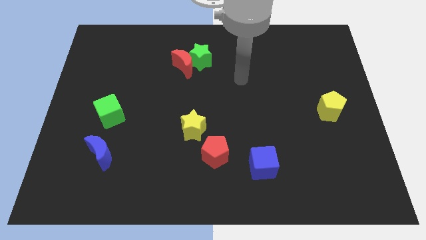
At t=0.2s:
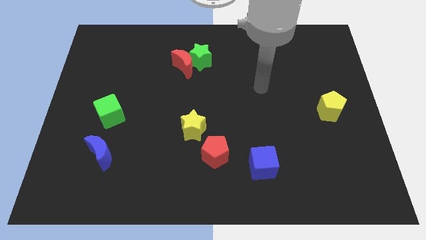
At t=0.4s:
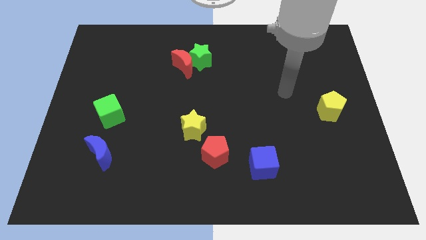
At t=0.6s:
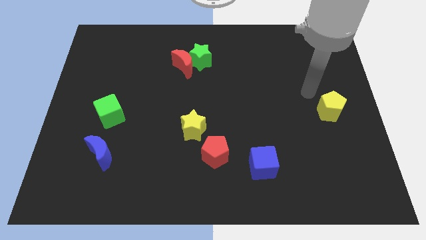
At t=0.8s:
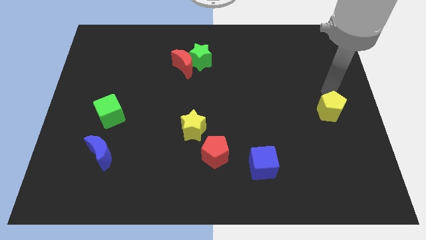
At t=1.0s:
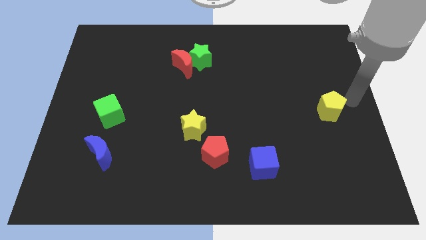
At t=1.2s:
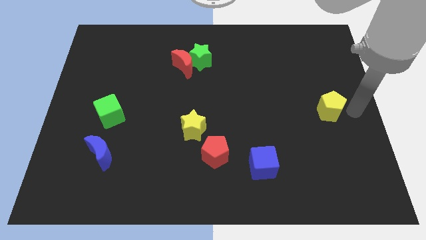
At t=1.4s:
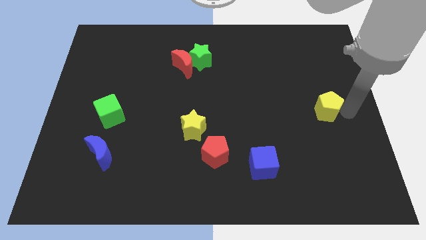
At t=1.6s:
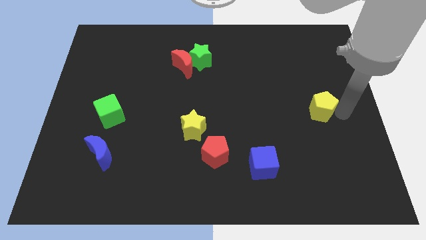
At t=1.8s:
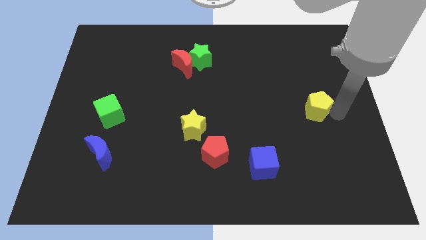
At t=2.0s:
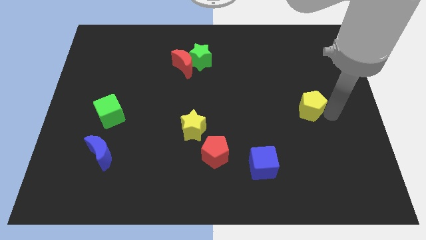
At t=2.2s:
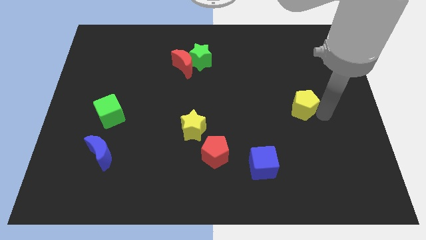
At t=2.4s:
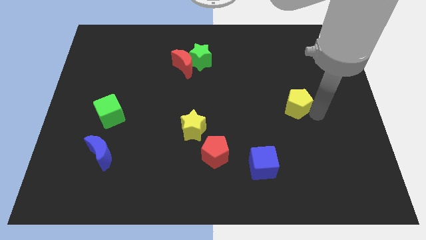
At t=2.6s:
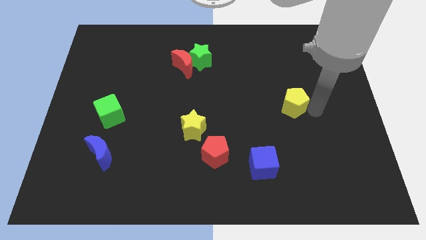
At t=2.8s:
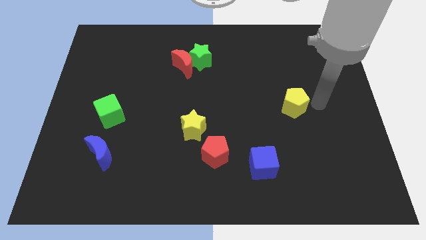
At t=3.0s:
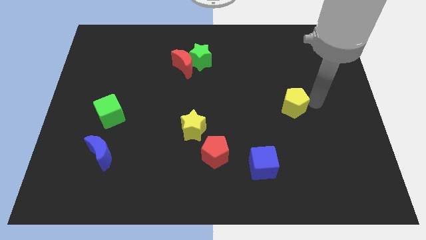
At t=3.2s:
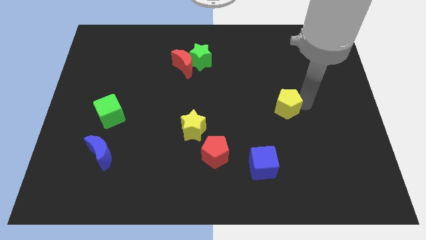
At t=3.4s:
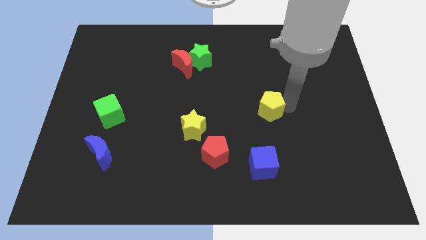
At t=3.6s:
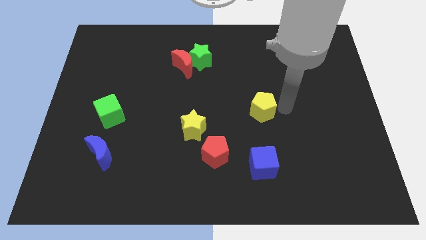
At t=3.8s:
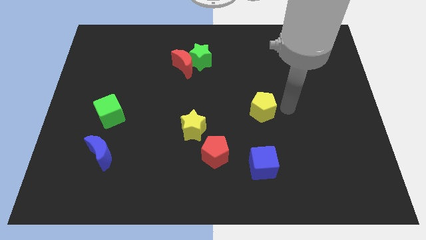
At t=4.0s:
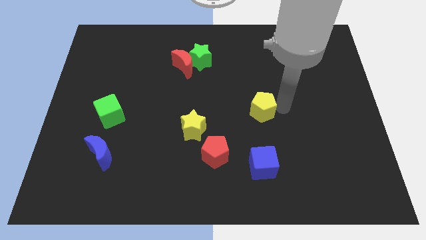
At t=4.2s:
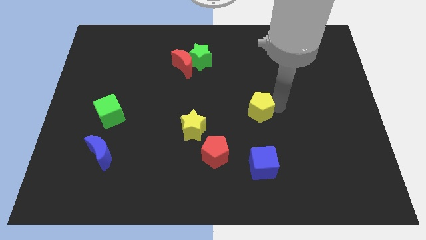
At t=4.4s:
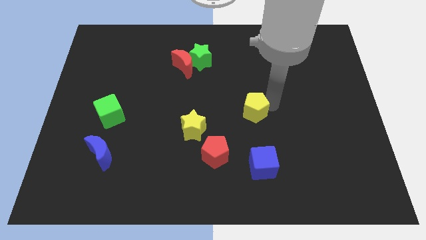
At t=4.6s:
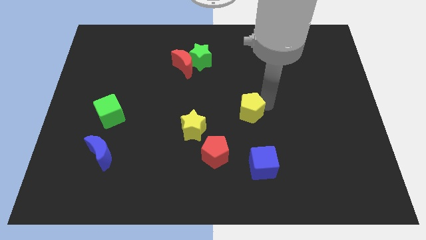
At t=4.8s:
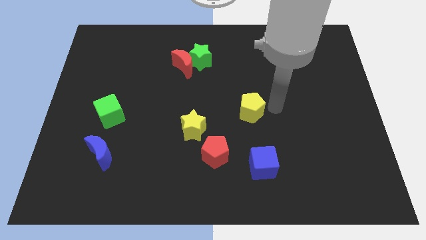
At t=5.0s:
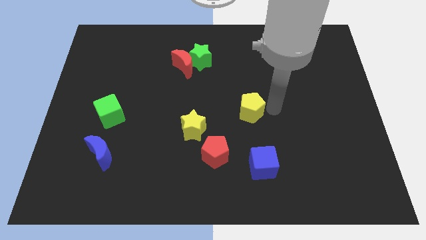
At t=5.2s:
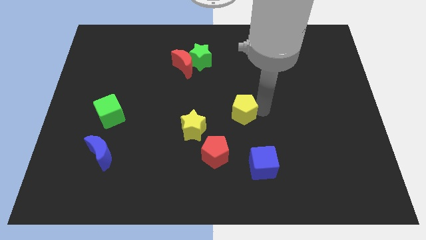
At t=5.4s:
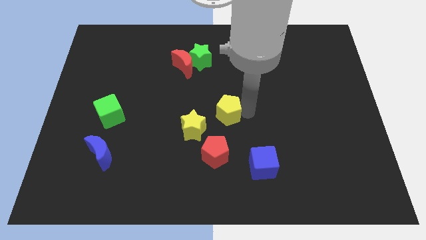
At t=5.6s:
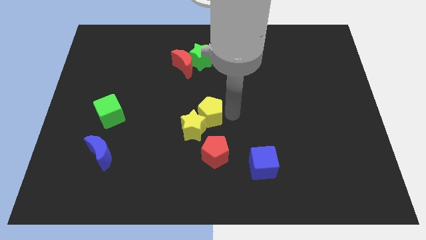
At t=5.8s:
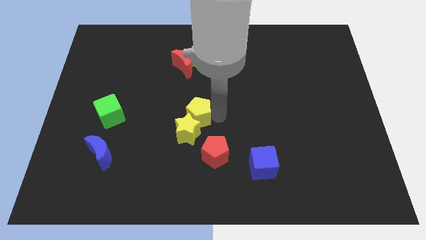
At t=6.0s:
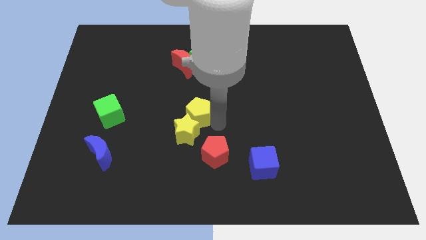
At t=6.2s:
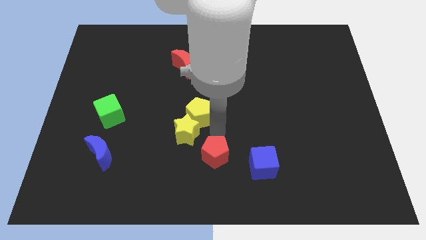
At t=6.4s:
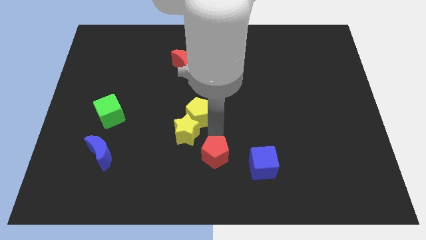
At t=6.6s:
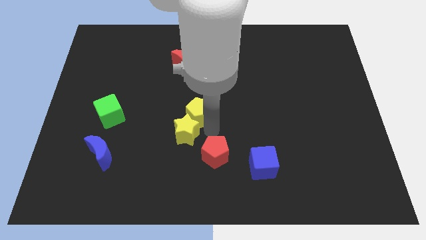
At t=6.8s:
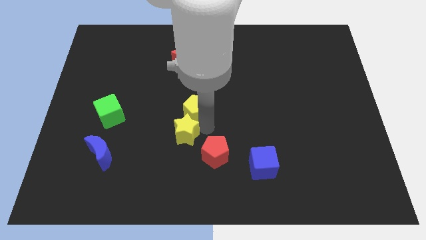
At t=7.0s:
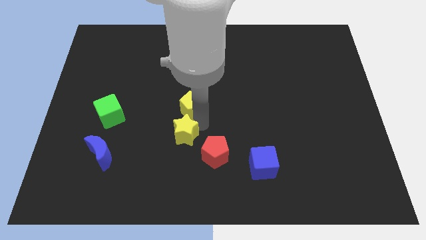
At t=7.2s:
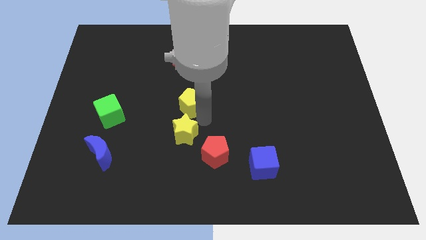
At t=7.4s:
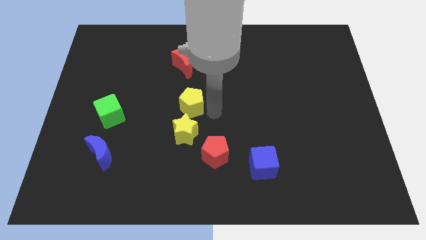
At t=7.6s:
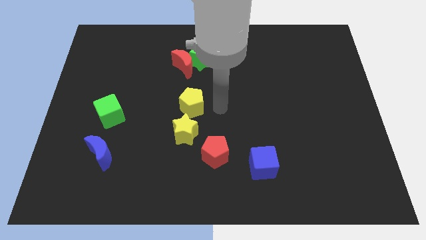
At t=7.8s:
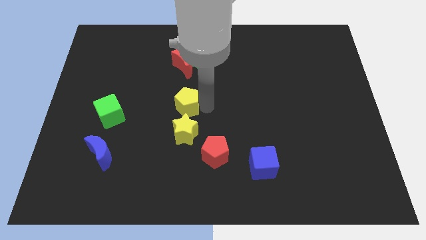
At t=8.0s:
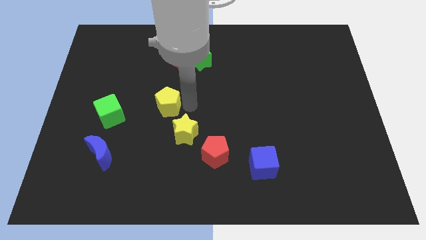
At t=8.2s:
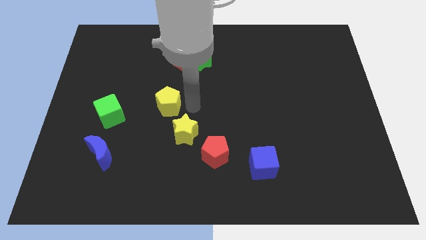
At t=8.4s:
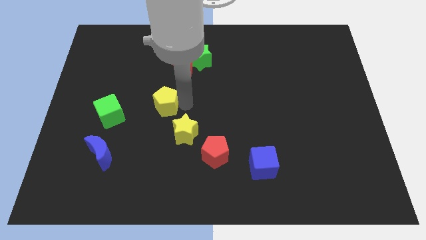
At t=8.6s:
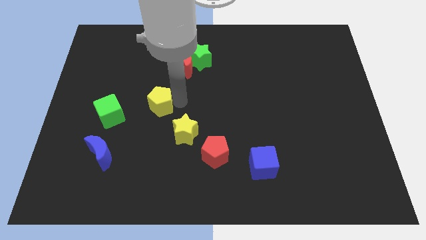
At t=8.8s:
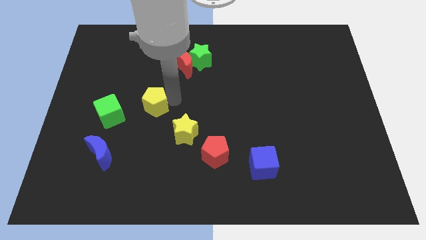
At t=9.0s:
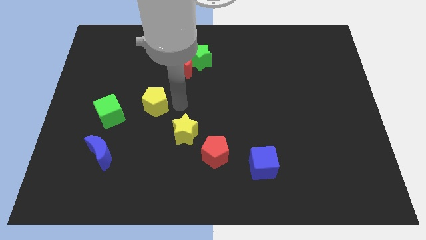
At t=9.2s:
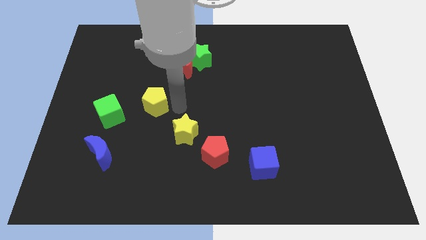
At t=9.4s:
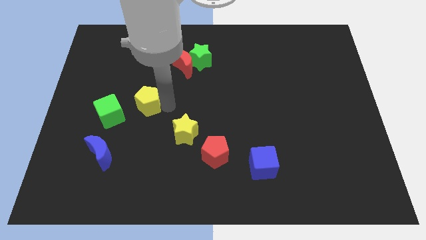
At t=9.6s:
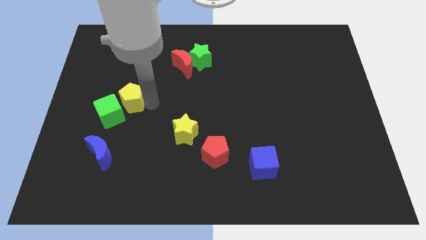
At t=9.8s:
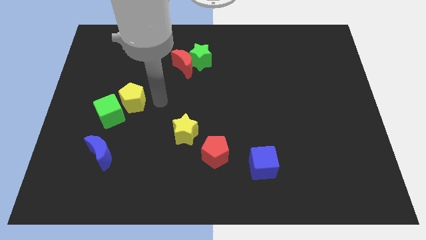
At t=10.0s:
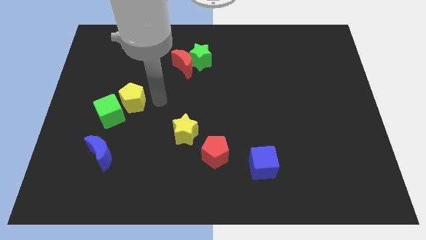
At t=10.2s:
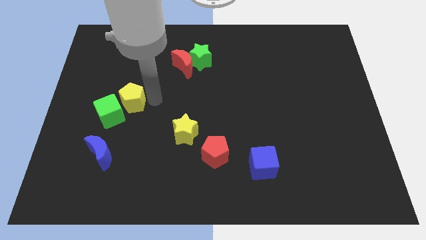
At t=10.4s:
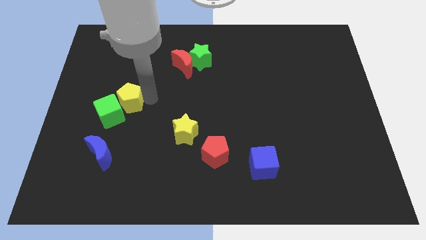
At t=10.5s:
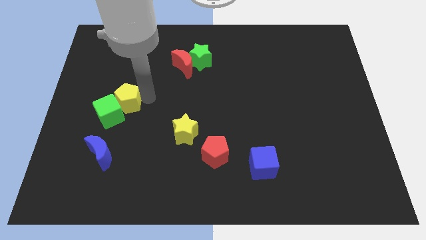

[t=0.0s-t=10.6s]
move the yellow pentagon to the top of the blue moon

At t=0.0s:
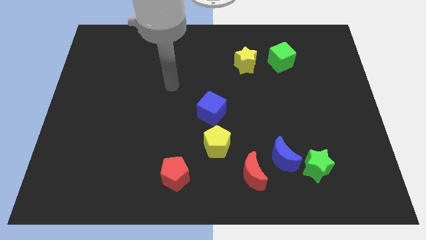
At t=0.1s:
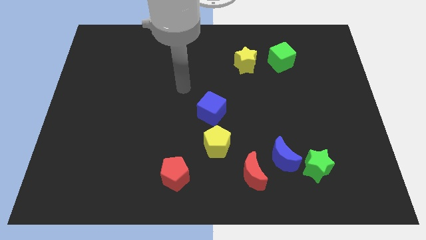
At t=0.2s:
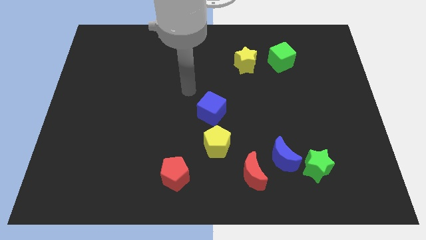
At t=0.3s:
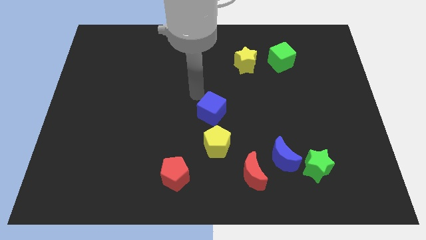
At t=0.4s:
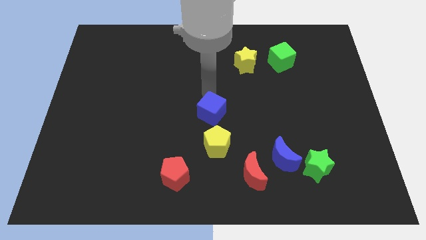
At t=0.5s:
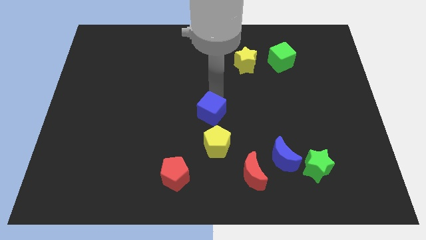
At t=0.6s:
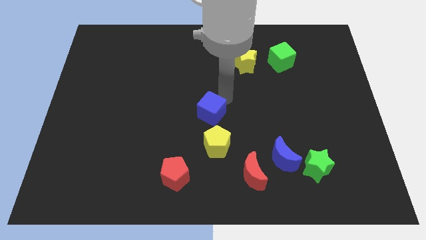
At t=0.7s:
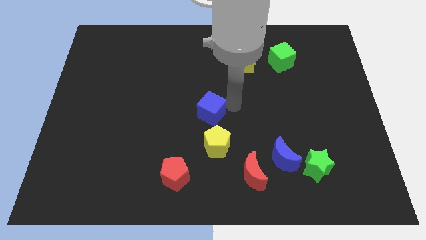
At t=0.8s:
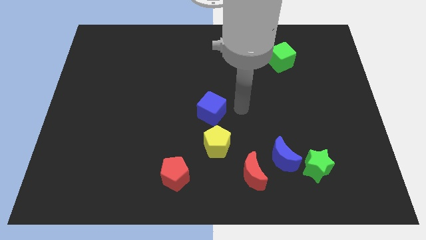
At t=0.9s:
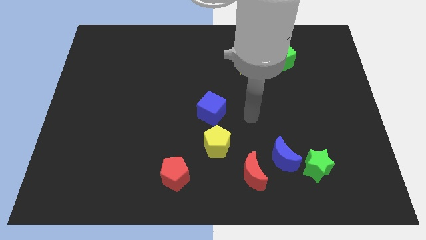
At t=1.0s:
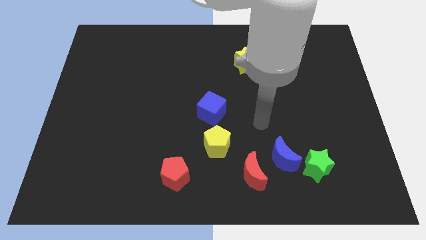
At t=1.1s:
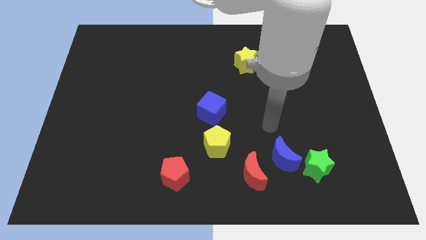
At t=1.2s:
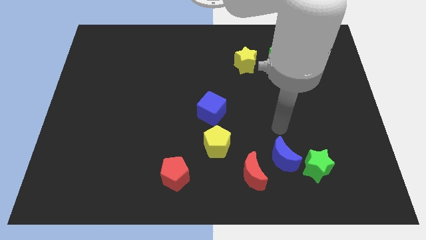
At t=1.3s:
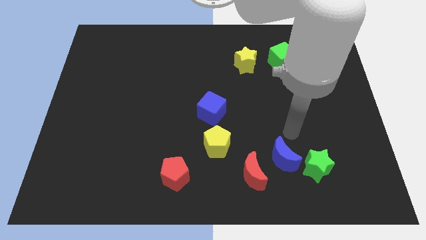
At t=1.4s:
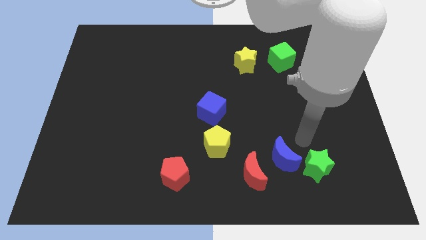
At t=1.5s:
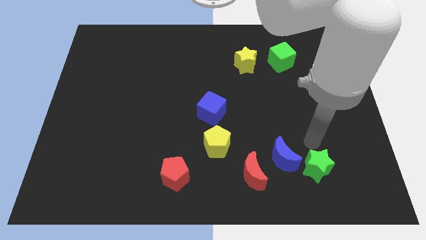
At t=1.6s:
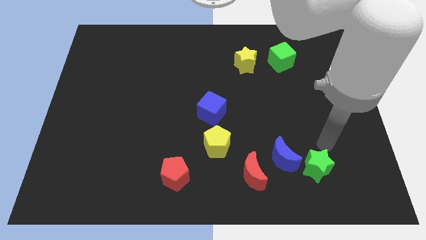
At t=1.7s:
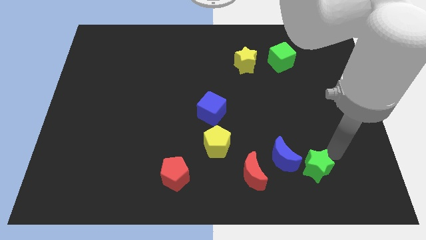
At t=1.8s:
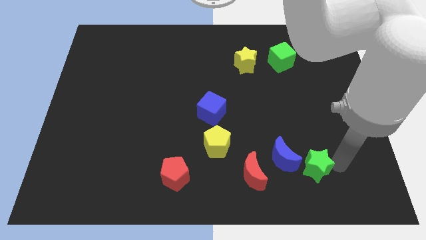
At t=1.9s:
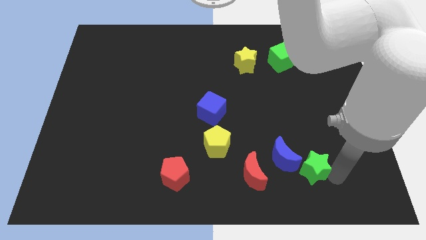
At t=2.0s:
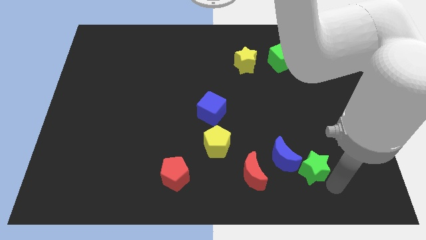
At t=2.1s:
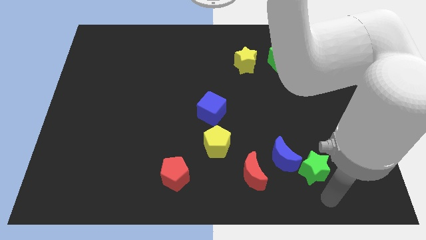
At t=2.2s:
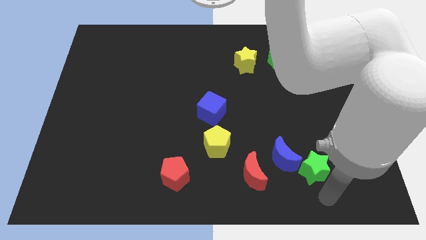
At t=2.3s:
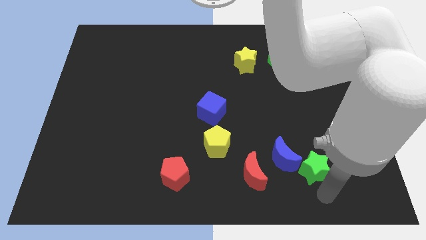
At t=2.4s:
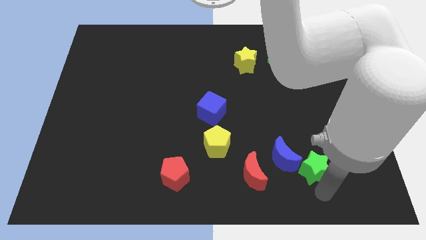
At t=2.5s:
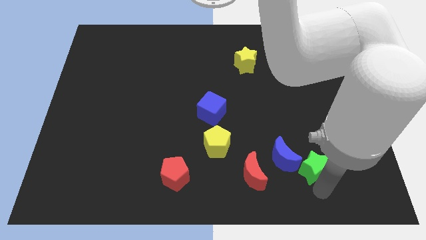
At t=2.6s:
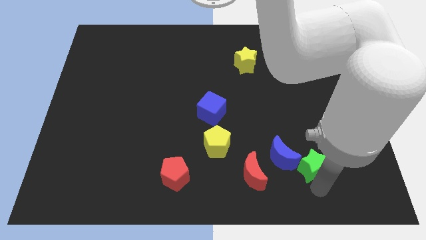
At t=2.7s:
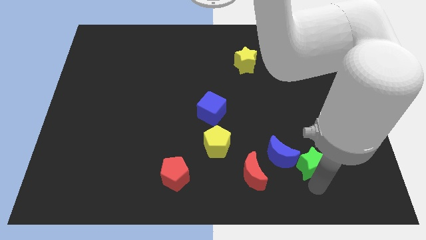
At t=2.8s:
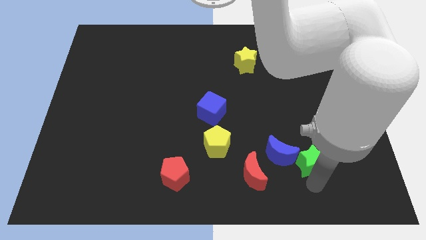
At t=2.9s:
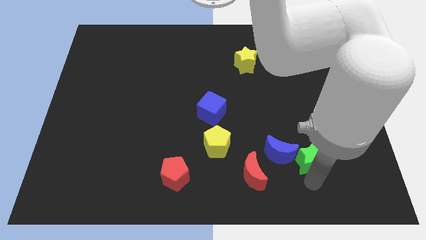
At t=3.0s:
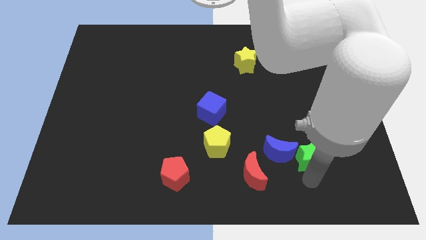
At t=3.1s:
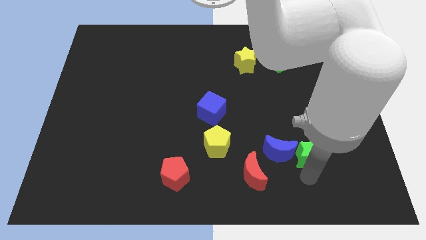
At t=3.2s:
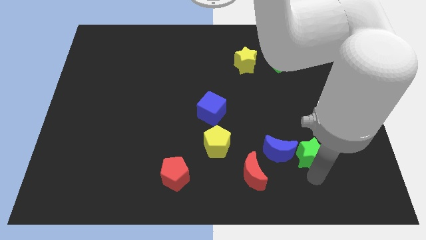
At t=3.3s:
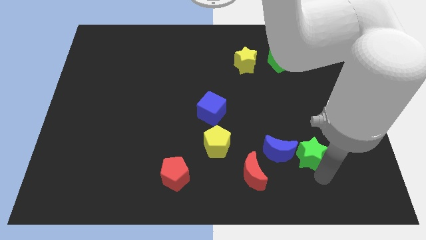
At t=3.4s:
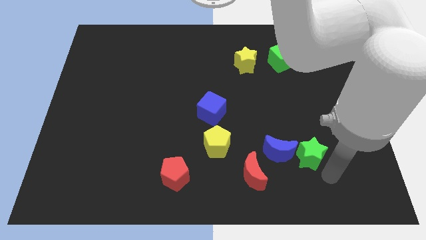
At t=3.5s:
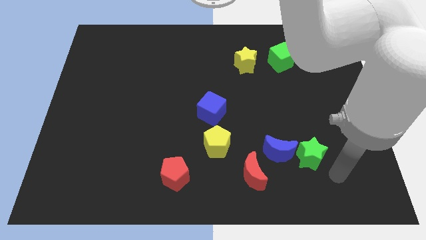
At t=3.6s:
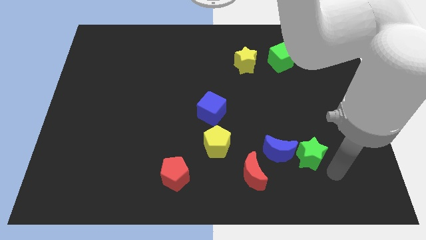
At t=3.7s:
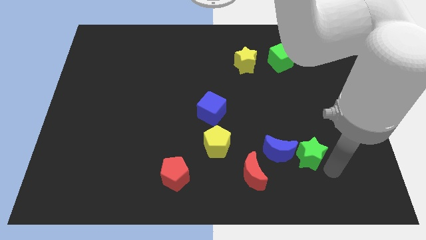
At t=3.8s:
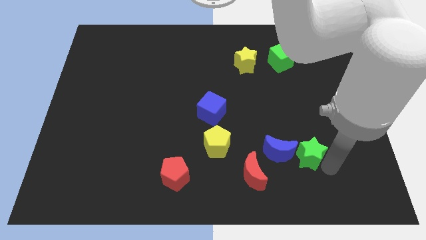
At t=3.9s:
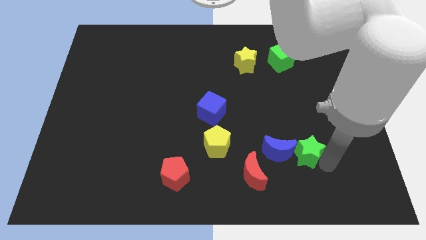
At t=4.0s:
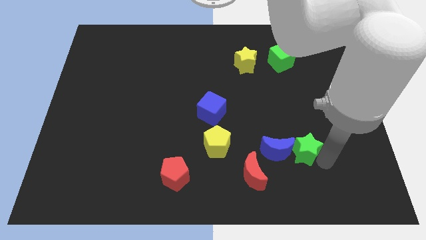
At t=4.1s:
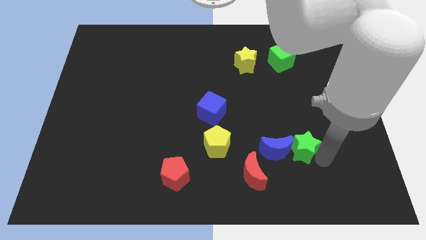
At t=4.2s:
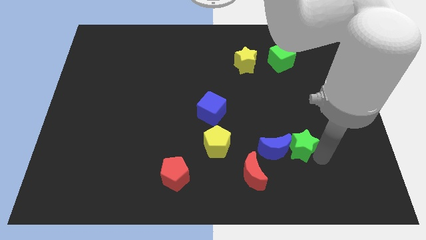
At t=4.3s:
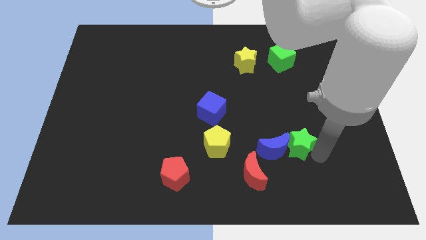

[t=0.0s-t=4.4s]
put the green star to the top right of the red moon
